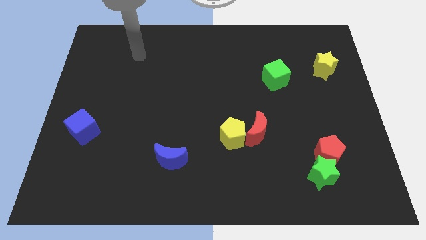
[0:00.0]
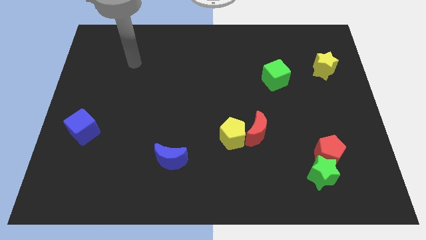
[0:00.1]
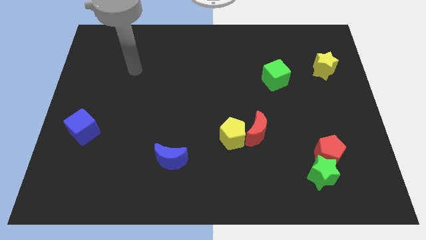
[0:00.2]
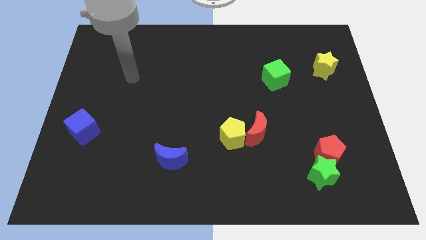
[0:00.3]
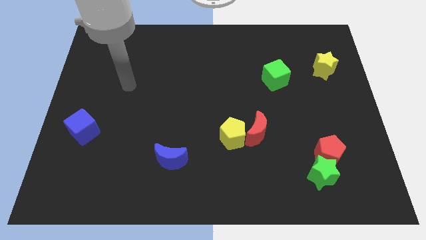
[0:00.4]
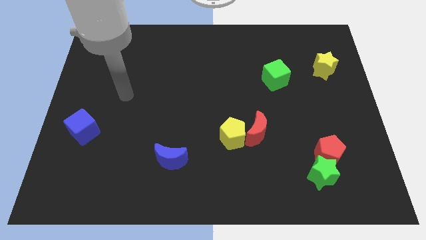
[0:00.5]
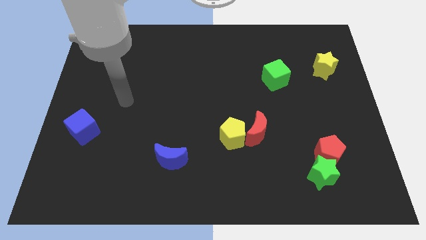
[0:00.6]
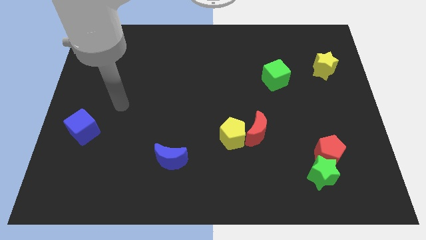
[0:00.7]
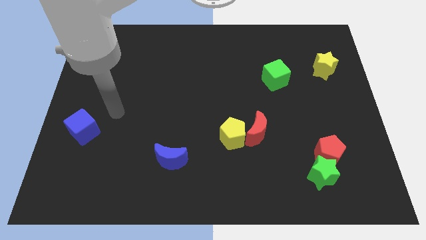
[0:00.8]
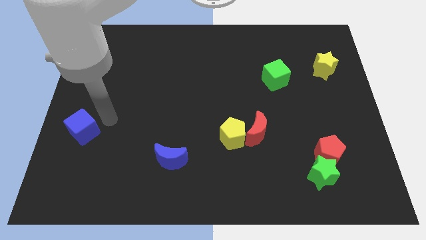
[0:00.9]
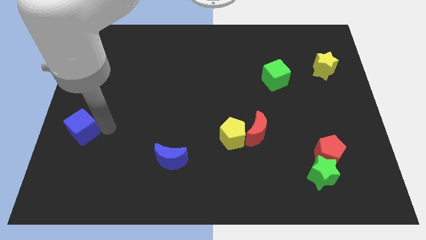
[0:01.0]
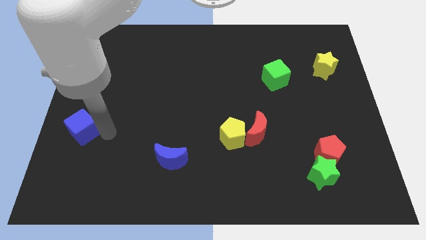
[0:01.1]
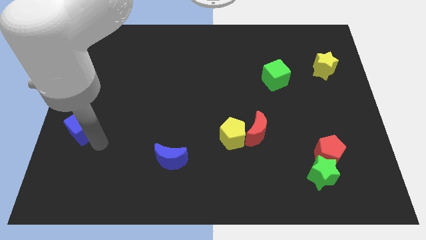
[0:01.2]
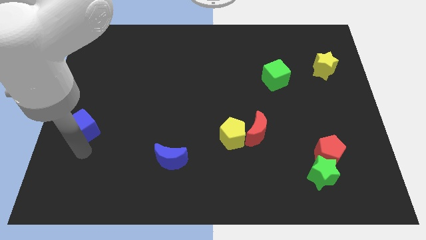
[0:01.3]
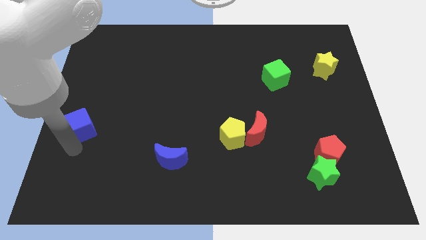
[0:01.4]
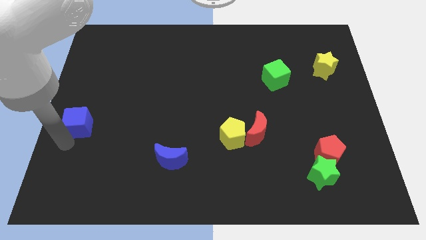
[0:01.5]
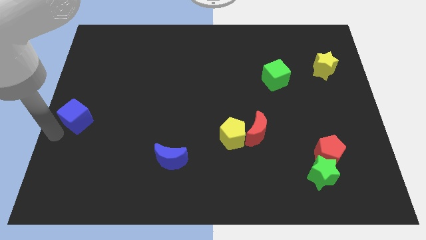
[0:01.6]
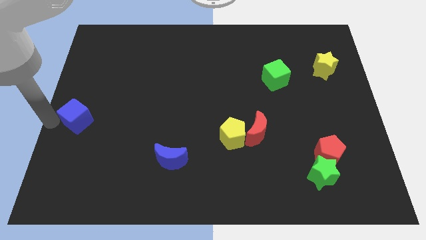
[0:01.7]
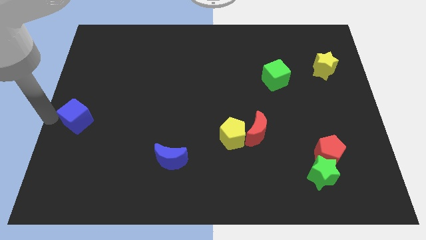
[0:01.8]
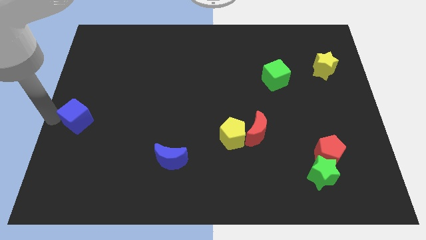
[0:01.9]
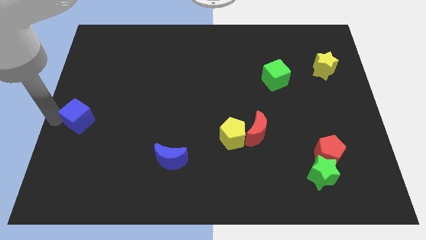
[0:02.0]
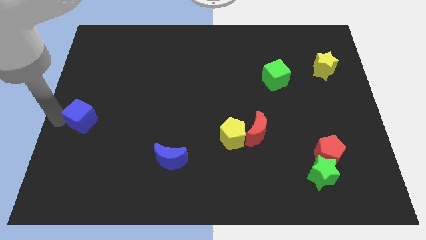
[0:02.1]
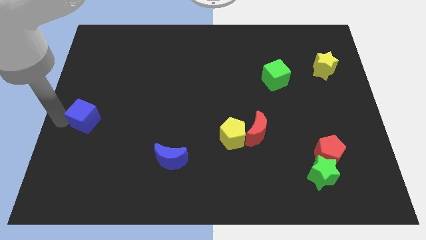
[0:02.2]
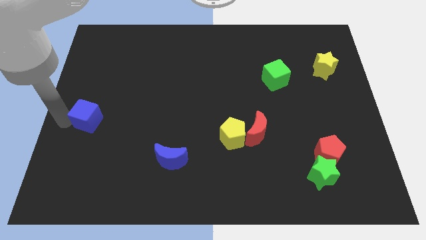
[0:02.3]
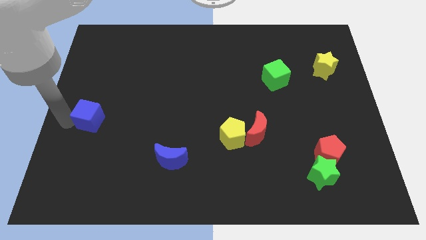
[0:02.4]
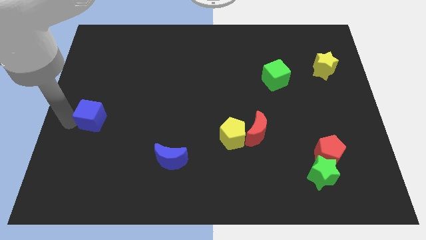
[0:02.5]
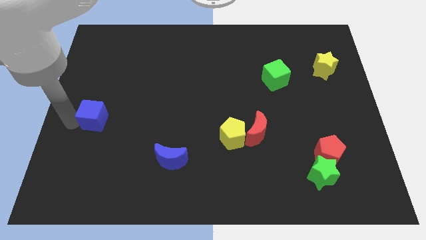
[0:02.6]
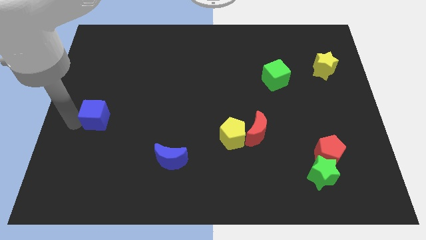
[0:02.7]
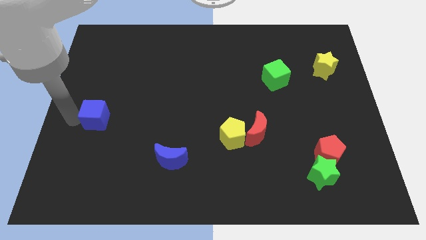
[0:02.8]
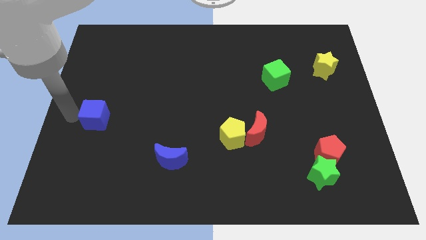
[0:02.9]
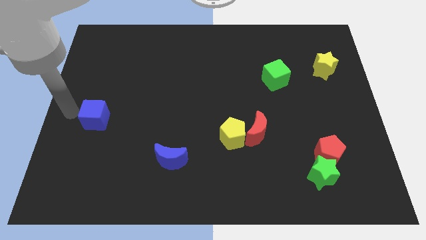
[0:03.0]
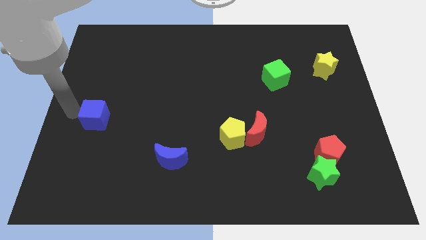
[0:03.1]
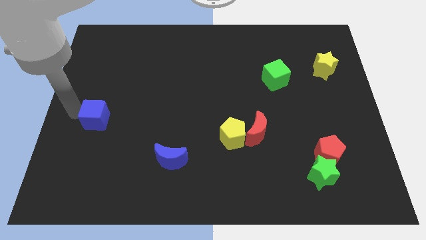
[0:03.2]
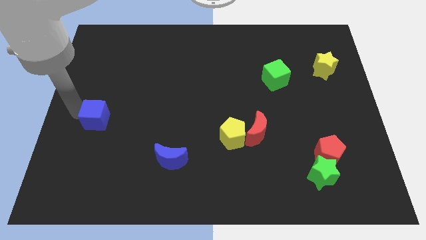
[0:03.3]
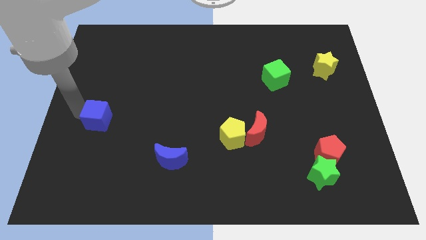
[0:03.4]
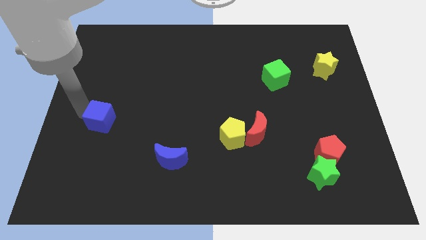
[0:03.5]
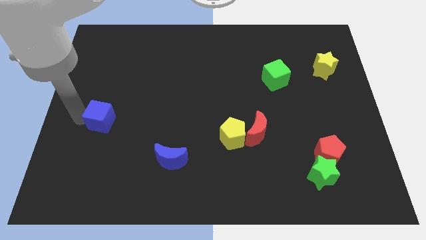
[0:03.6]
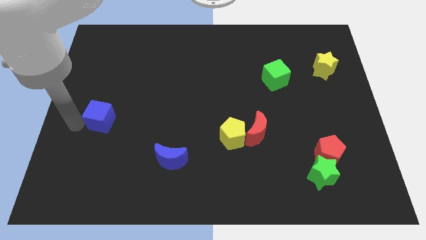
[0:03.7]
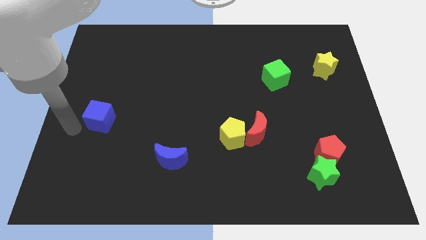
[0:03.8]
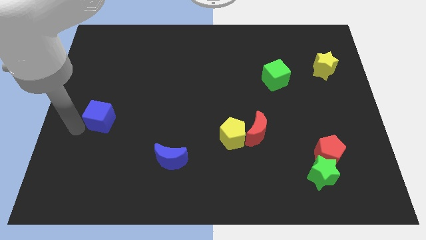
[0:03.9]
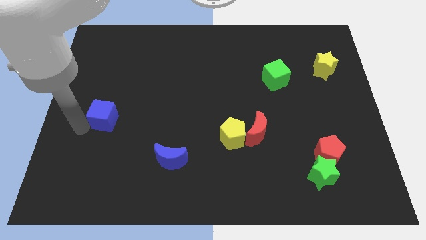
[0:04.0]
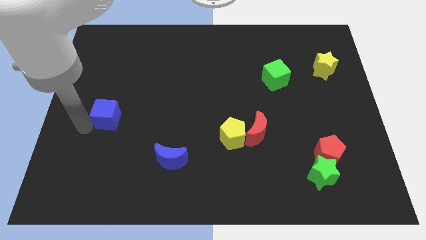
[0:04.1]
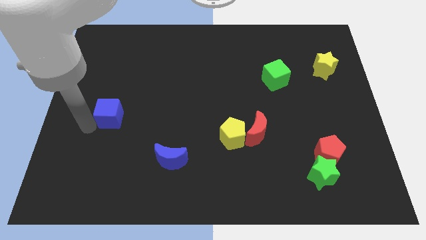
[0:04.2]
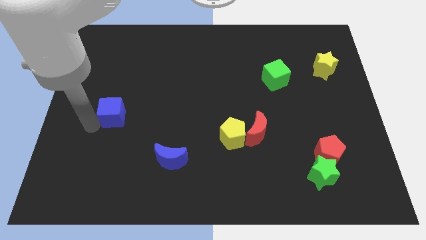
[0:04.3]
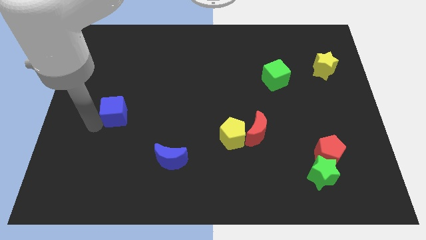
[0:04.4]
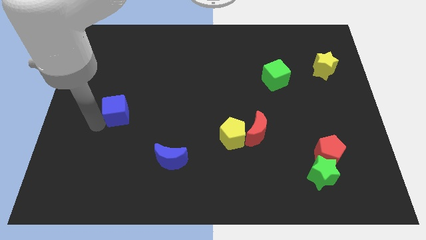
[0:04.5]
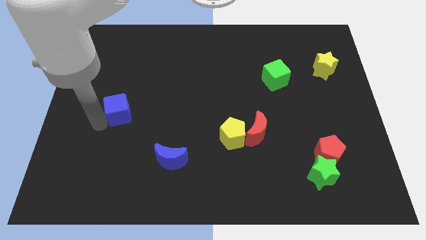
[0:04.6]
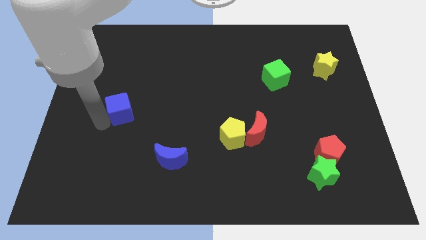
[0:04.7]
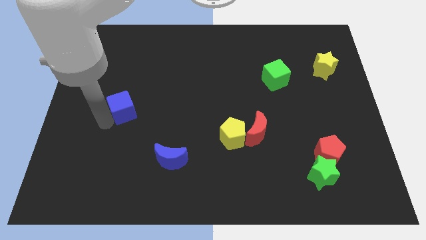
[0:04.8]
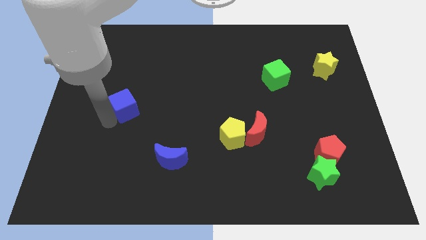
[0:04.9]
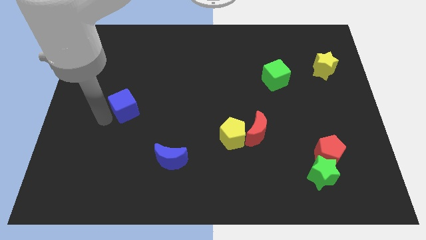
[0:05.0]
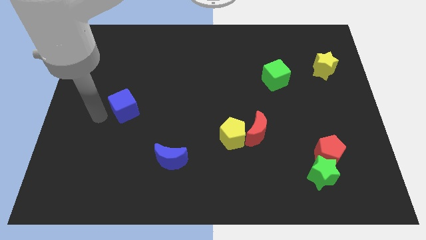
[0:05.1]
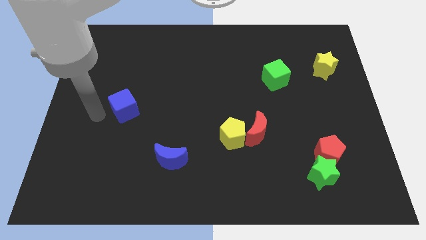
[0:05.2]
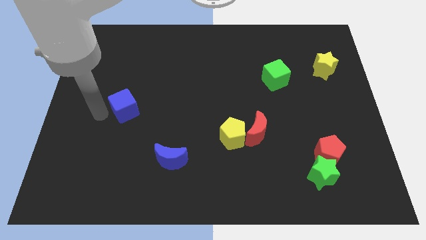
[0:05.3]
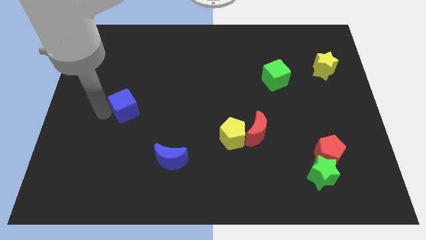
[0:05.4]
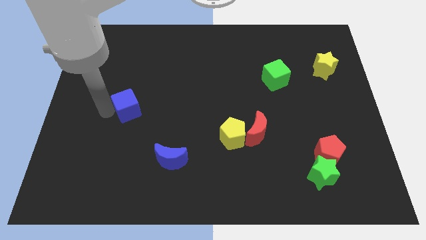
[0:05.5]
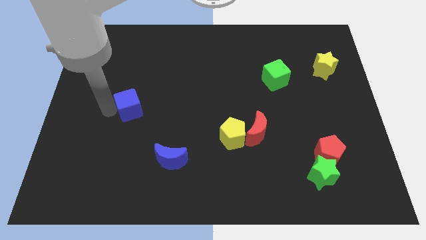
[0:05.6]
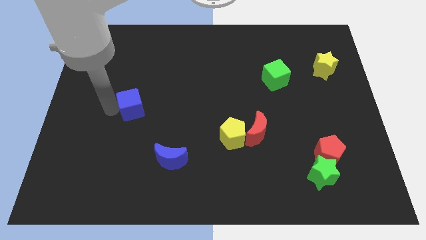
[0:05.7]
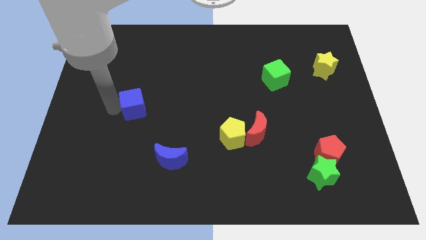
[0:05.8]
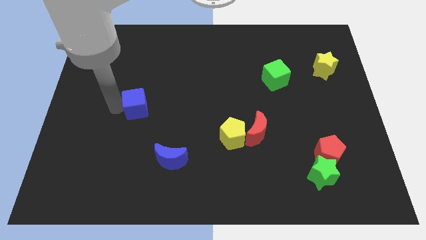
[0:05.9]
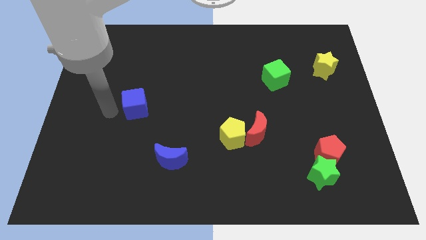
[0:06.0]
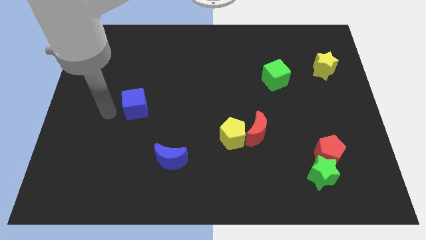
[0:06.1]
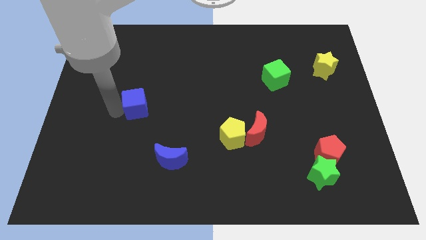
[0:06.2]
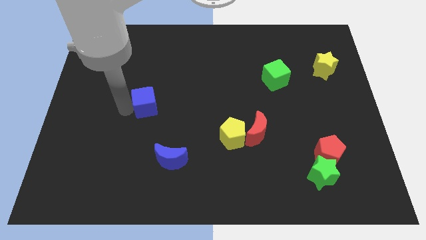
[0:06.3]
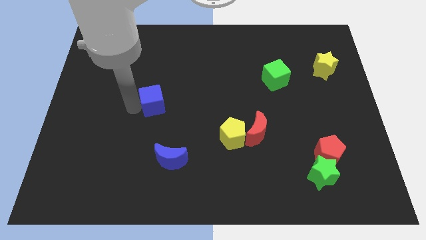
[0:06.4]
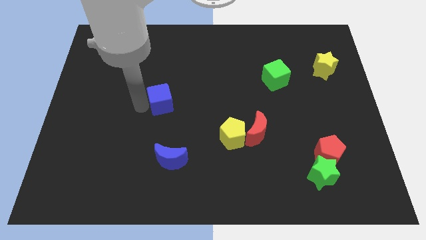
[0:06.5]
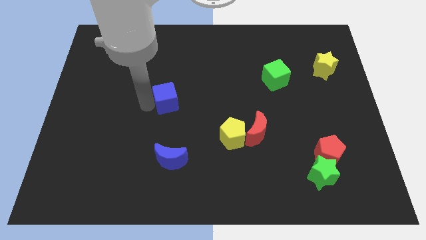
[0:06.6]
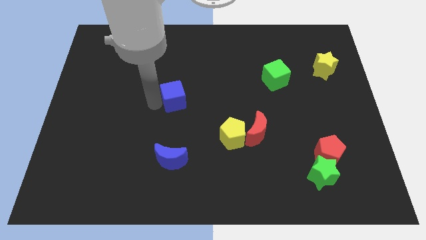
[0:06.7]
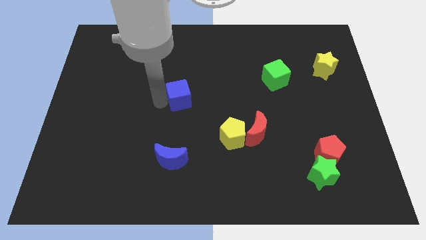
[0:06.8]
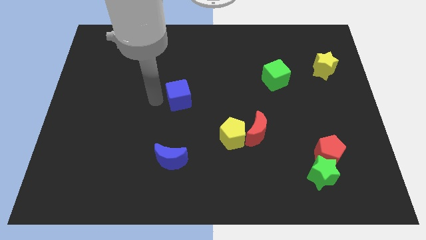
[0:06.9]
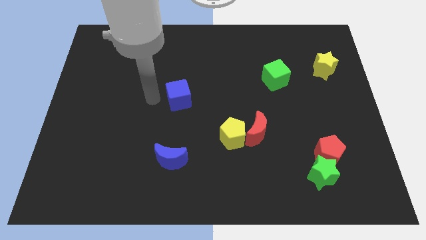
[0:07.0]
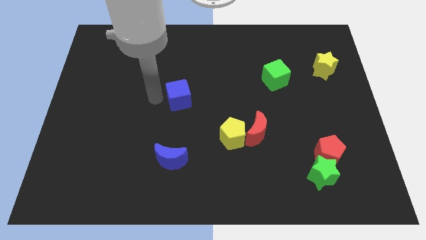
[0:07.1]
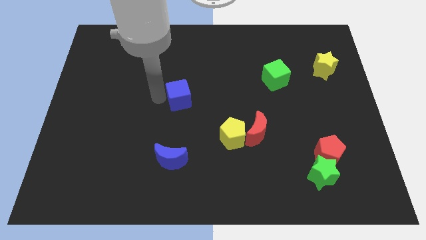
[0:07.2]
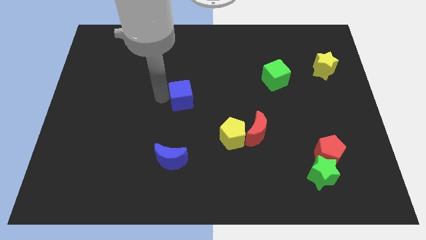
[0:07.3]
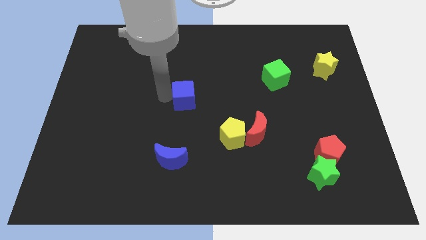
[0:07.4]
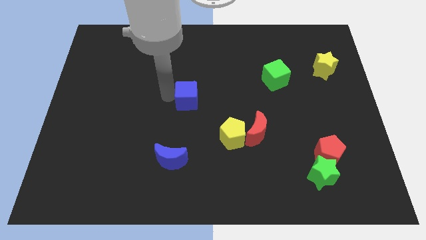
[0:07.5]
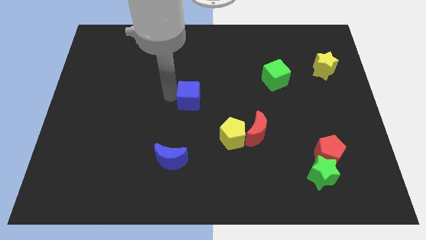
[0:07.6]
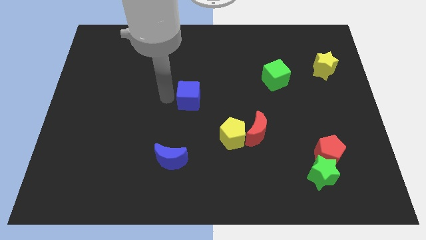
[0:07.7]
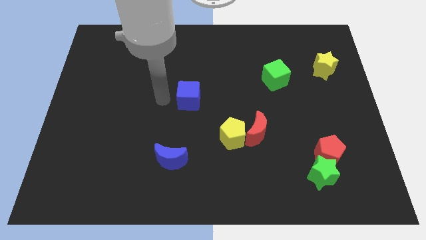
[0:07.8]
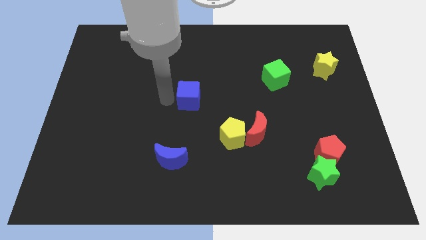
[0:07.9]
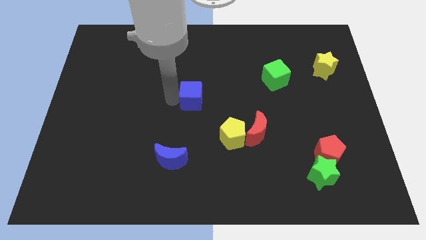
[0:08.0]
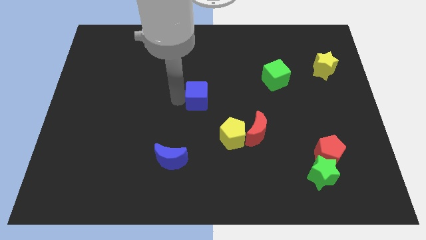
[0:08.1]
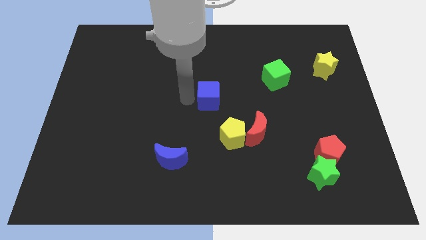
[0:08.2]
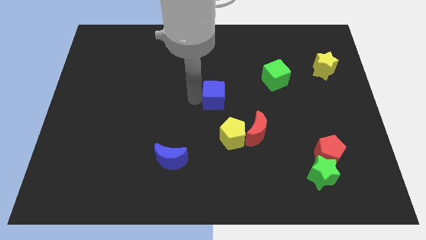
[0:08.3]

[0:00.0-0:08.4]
push the blue cube to the top side of the yellow pentagon
